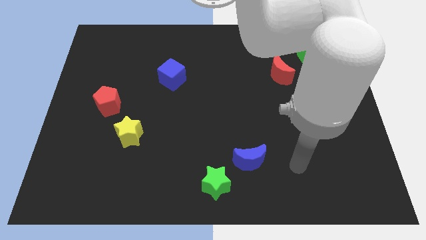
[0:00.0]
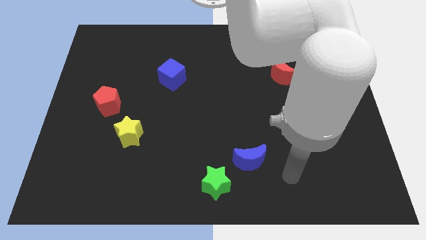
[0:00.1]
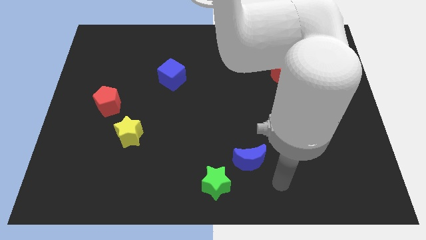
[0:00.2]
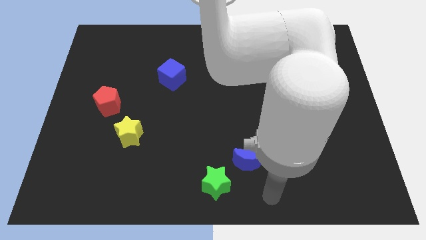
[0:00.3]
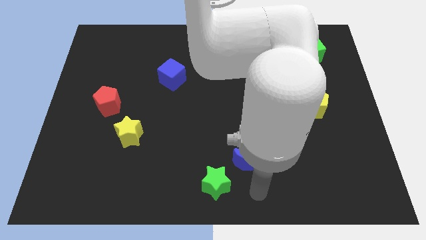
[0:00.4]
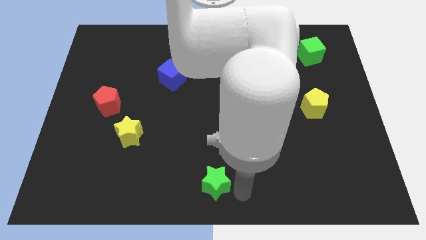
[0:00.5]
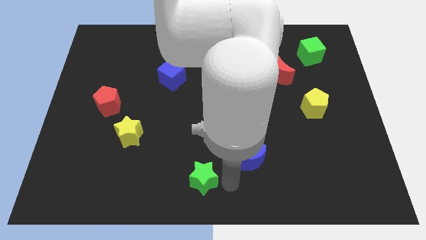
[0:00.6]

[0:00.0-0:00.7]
separate the blue moon from the green star

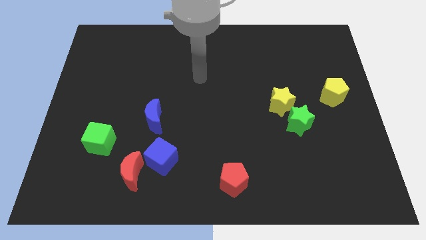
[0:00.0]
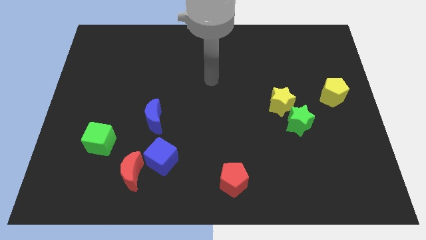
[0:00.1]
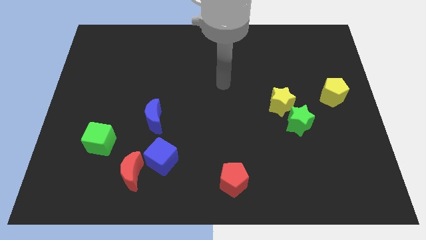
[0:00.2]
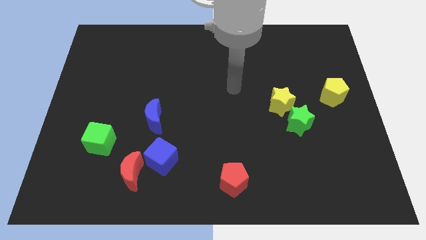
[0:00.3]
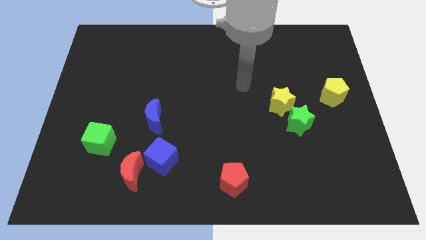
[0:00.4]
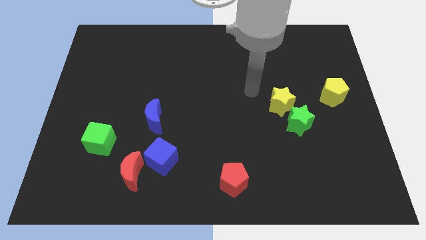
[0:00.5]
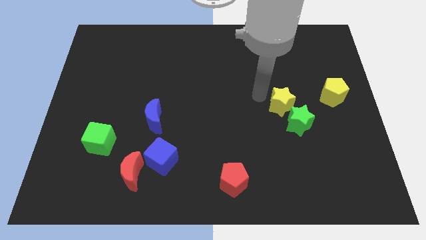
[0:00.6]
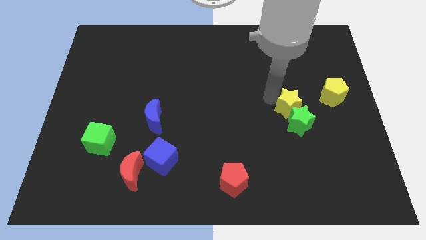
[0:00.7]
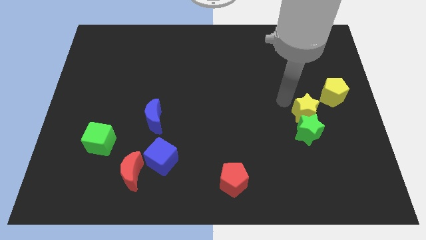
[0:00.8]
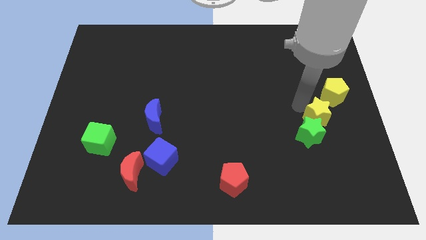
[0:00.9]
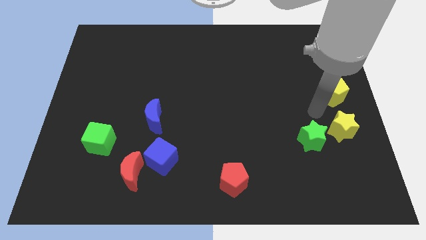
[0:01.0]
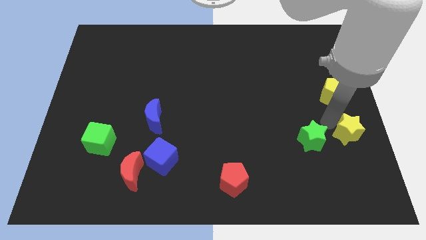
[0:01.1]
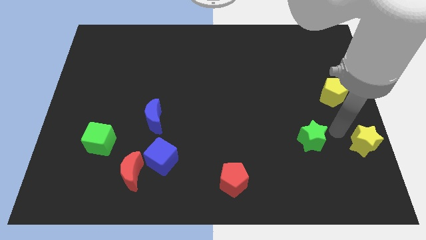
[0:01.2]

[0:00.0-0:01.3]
separate the green star from the yellow star

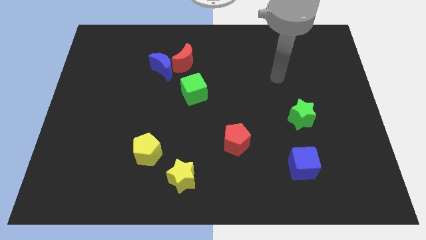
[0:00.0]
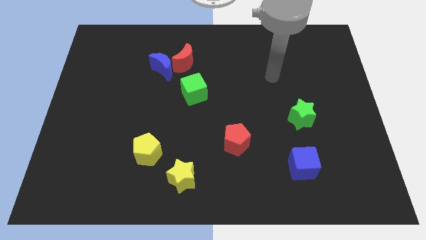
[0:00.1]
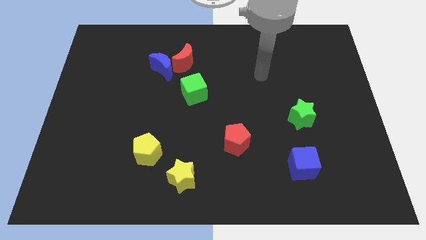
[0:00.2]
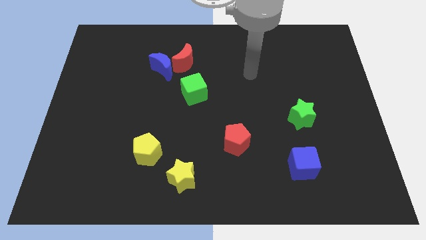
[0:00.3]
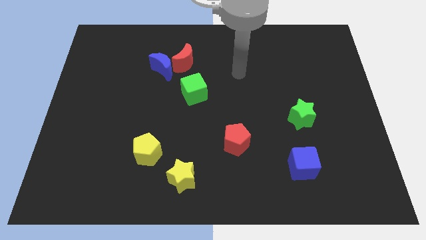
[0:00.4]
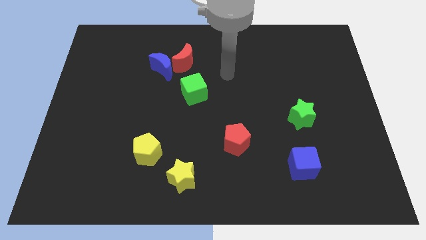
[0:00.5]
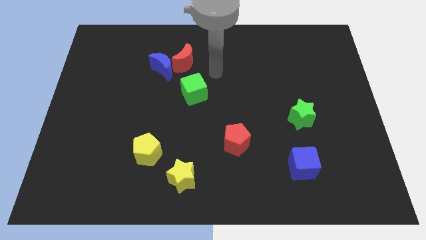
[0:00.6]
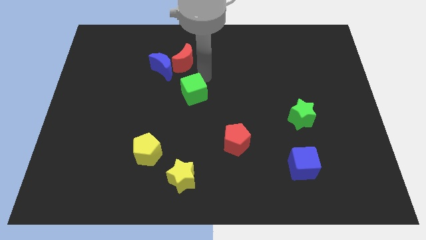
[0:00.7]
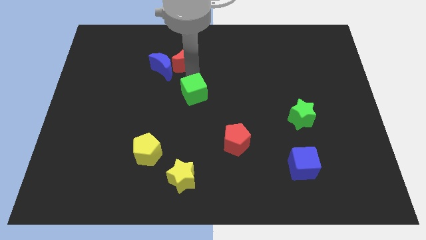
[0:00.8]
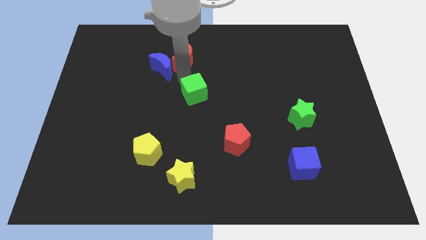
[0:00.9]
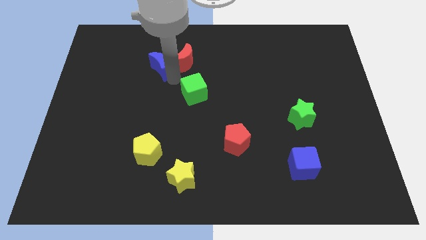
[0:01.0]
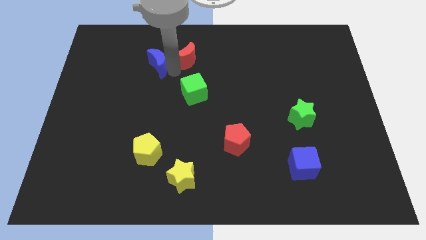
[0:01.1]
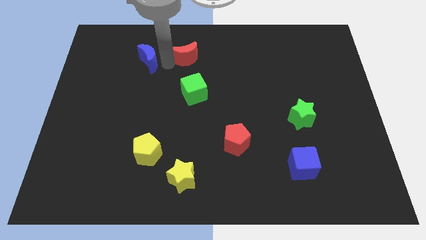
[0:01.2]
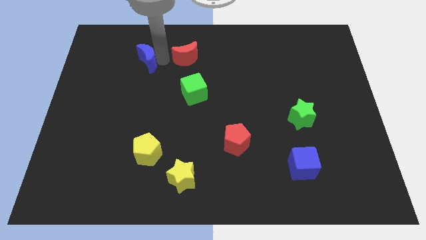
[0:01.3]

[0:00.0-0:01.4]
move the red moon away from the blue moon

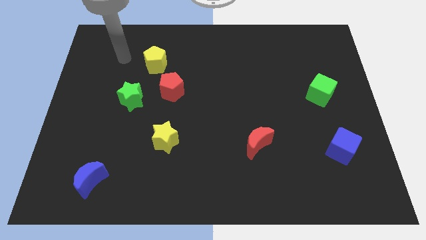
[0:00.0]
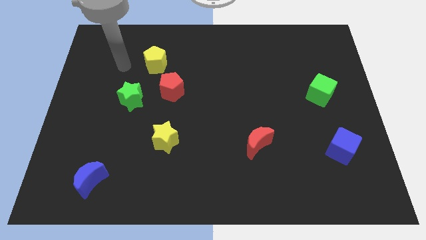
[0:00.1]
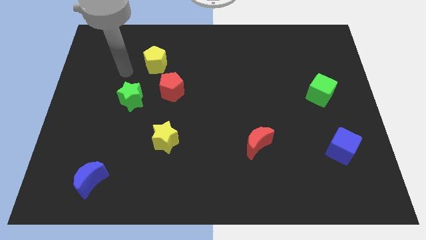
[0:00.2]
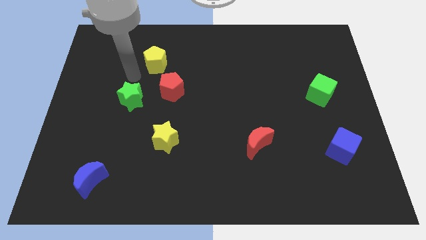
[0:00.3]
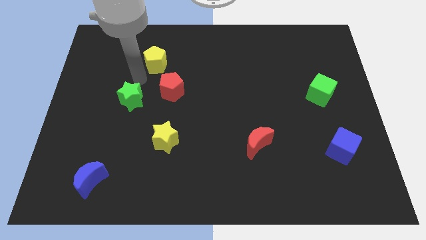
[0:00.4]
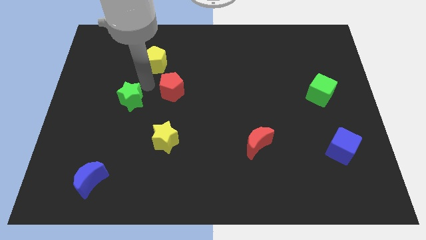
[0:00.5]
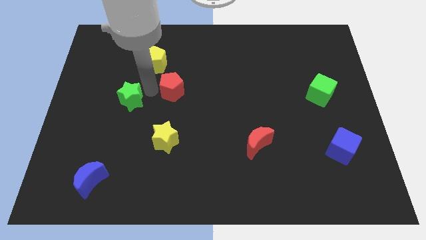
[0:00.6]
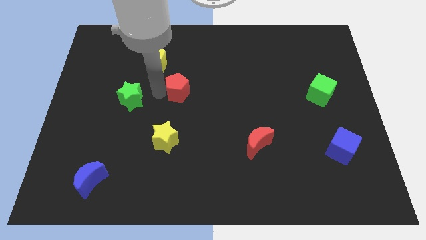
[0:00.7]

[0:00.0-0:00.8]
separate the green star from the red pentagon

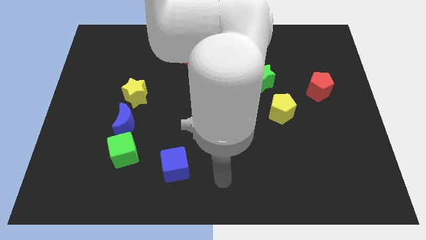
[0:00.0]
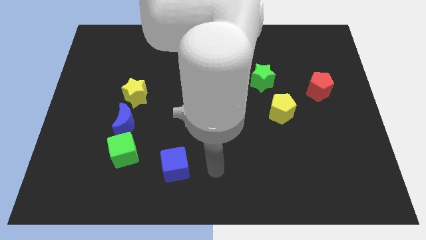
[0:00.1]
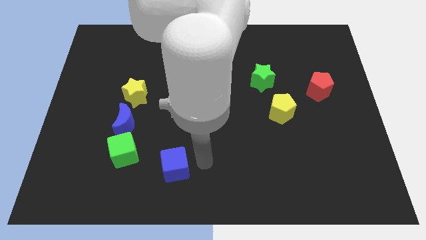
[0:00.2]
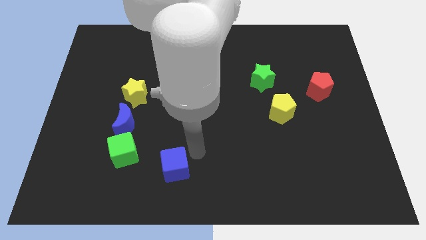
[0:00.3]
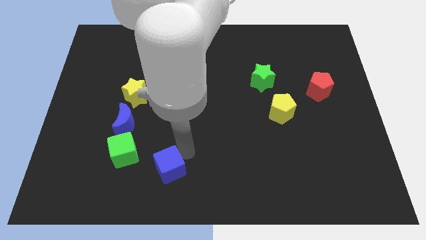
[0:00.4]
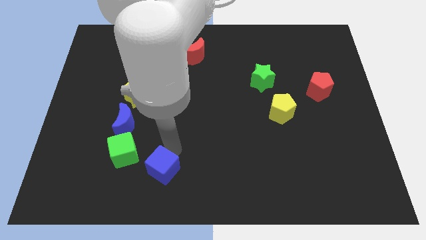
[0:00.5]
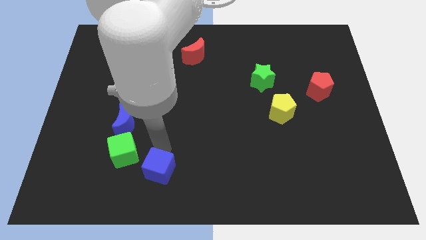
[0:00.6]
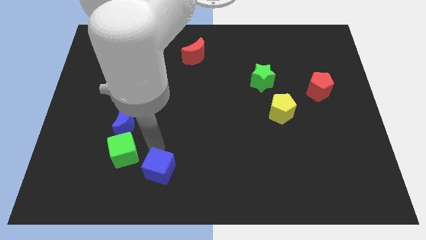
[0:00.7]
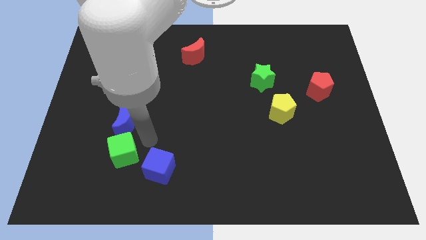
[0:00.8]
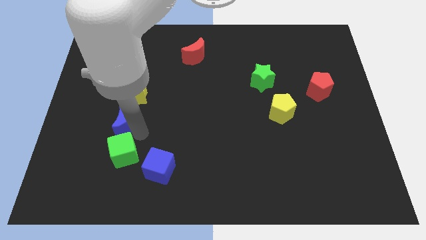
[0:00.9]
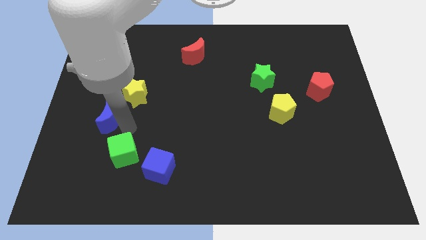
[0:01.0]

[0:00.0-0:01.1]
separate the green cube from the blue moon

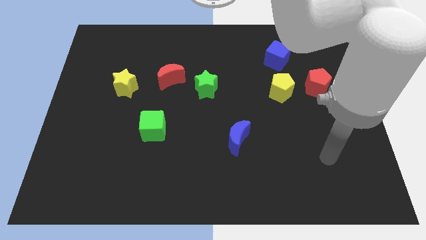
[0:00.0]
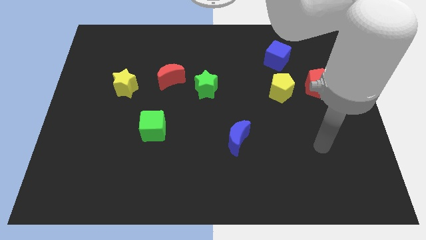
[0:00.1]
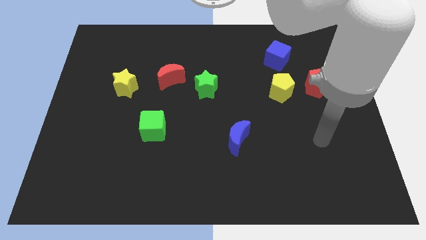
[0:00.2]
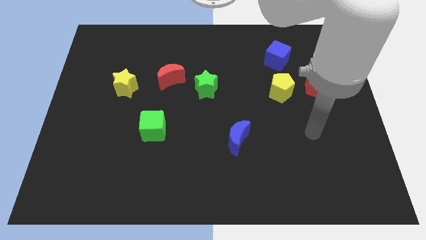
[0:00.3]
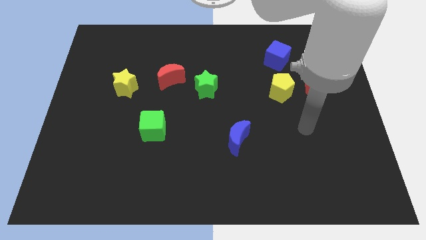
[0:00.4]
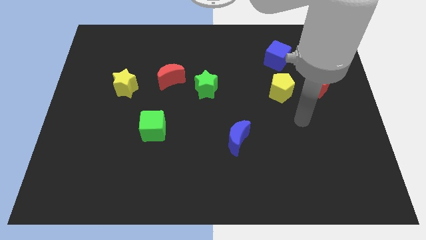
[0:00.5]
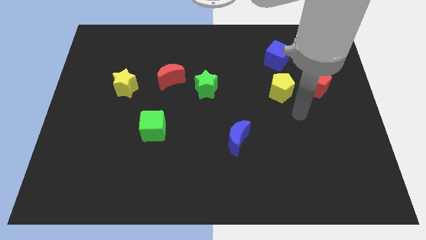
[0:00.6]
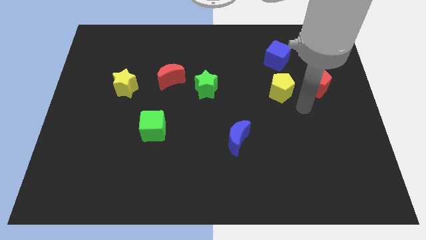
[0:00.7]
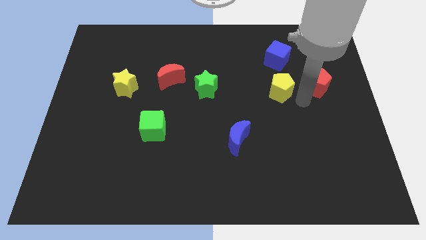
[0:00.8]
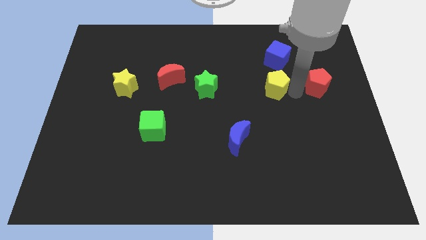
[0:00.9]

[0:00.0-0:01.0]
separate the red pentagon from the yellow pentagon

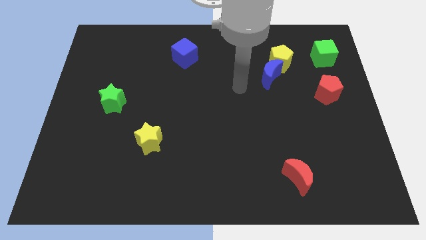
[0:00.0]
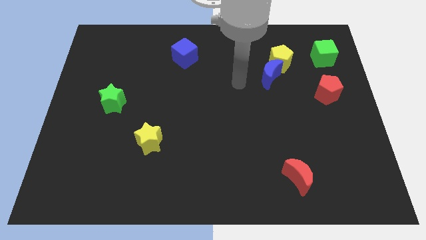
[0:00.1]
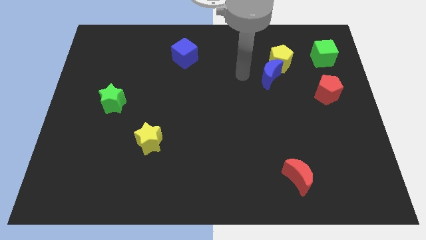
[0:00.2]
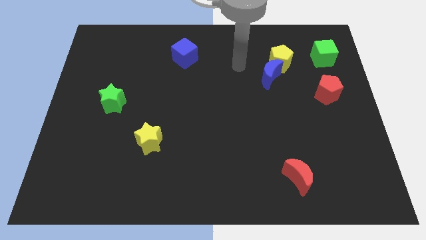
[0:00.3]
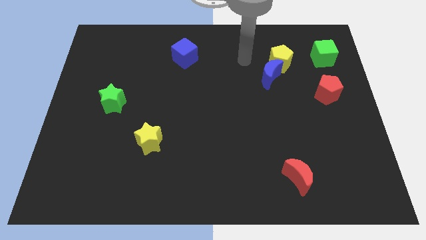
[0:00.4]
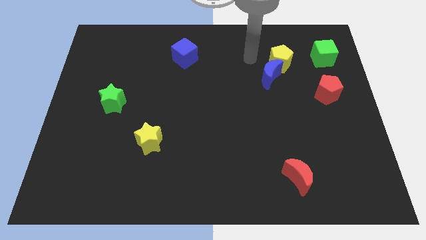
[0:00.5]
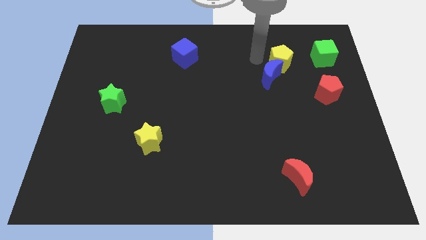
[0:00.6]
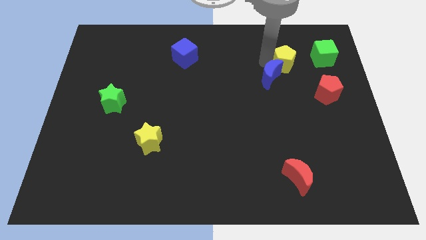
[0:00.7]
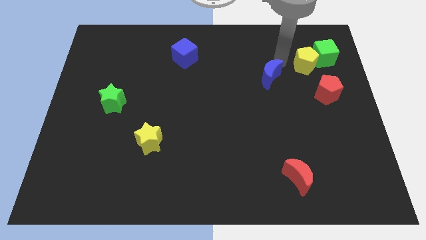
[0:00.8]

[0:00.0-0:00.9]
separate the blue moon from the yellow pentagon

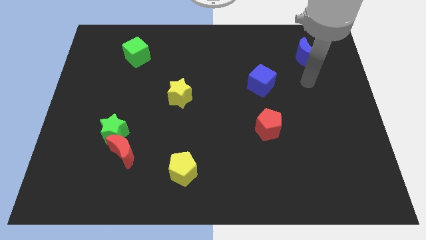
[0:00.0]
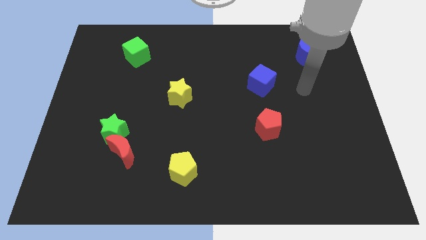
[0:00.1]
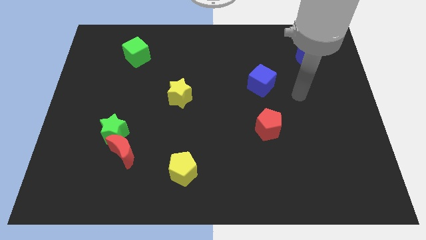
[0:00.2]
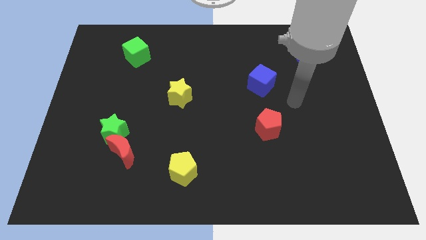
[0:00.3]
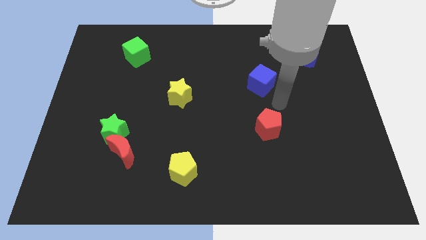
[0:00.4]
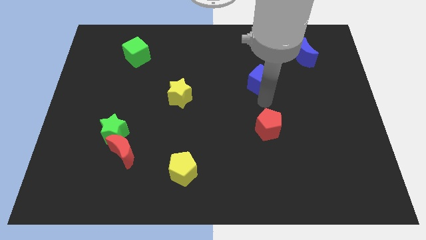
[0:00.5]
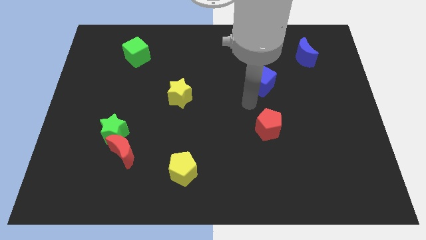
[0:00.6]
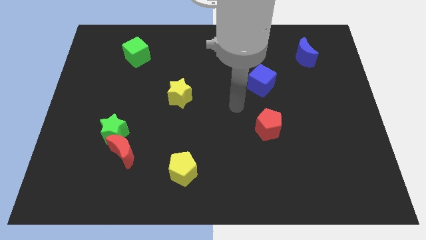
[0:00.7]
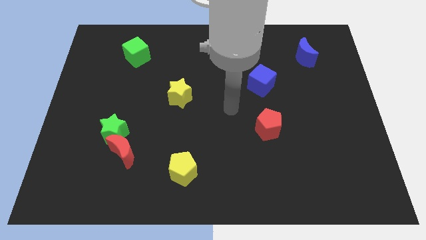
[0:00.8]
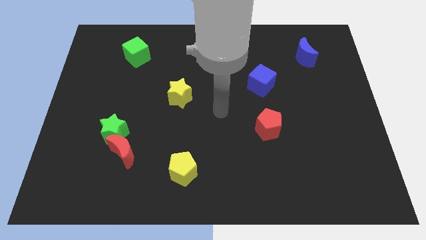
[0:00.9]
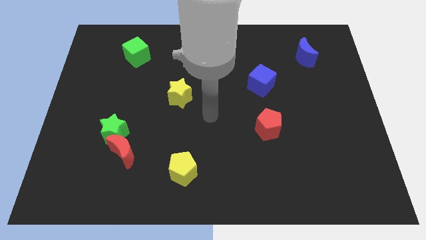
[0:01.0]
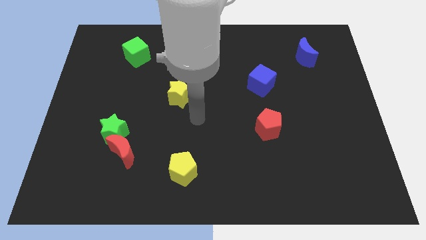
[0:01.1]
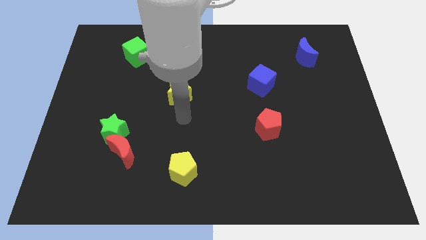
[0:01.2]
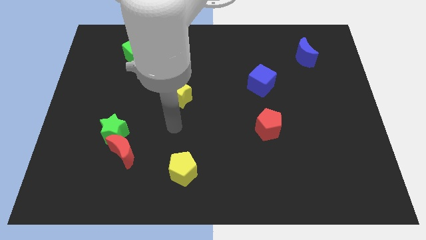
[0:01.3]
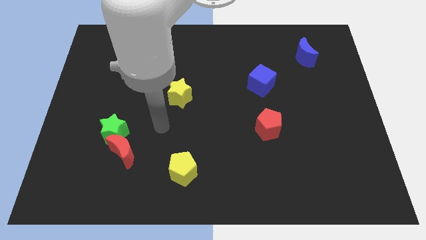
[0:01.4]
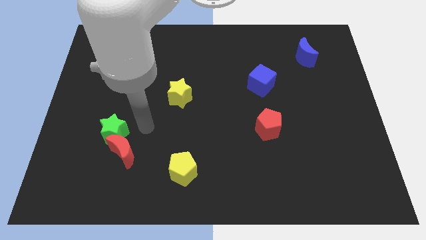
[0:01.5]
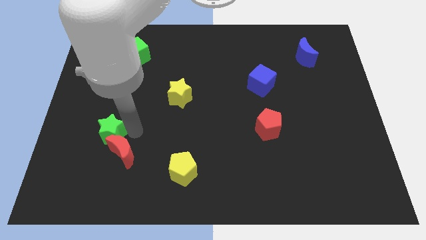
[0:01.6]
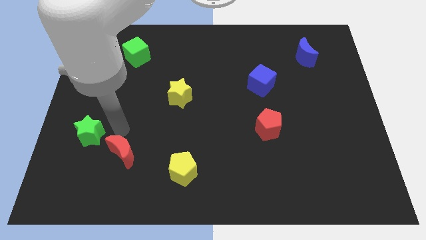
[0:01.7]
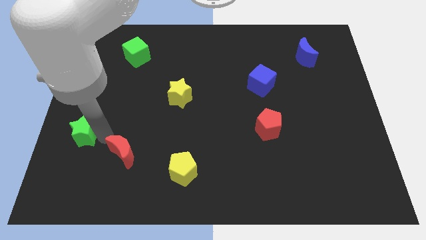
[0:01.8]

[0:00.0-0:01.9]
separate the red moon from the green star

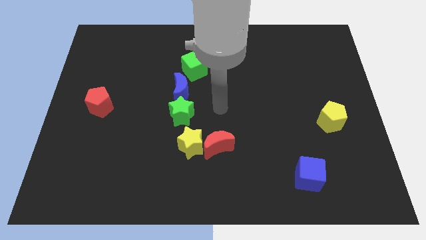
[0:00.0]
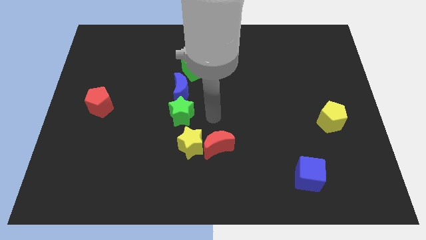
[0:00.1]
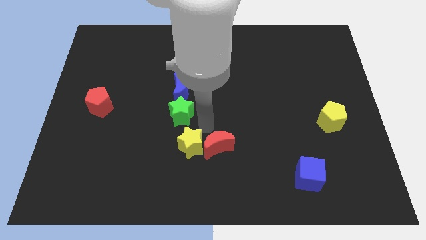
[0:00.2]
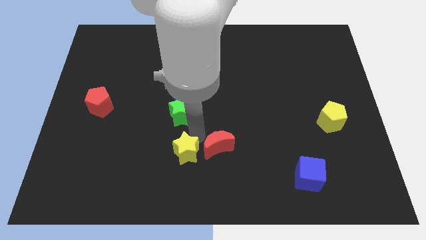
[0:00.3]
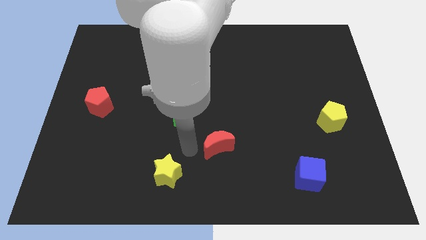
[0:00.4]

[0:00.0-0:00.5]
pull the red moon apart from the yellow star
